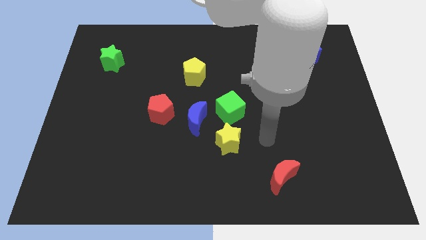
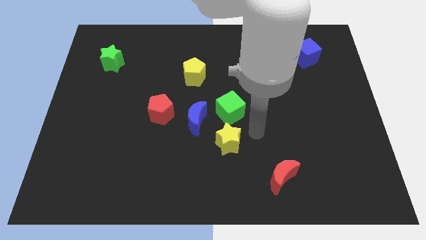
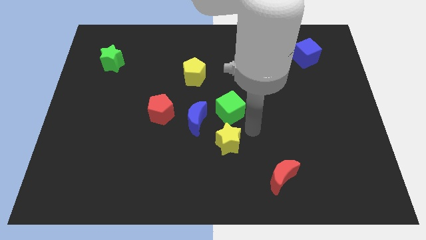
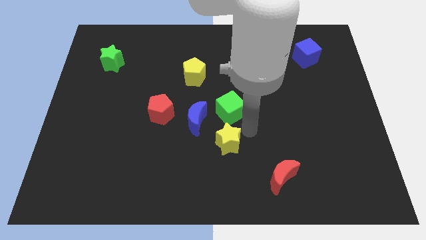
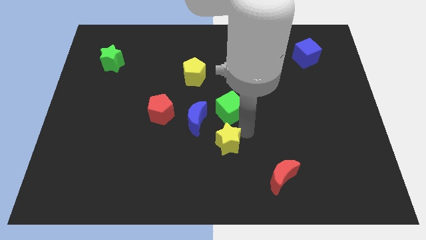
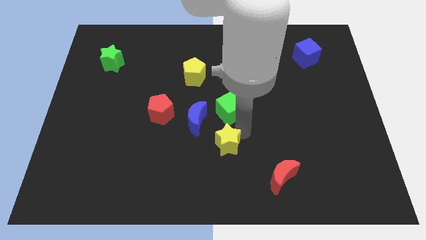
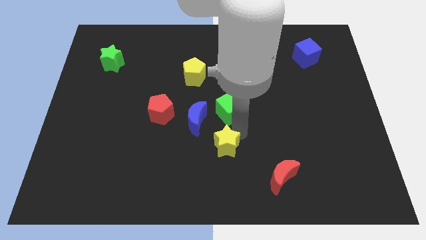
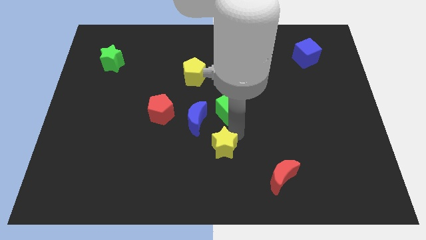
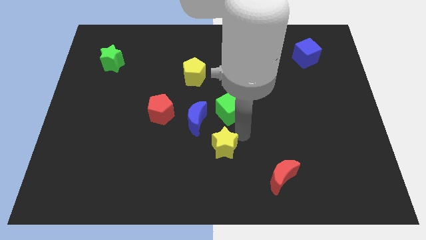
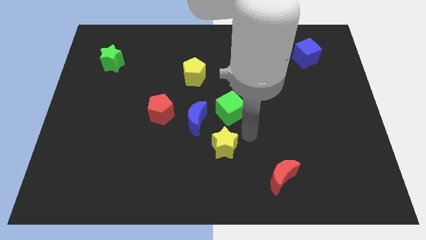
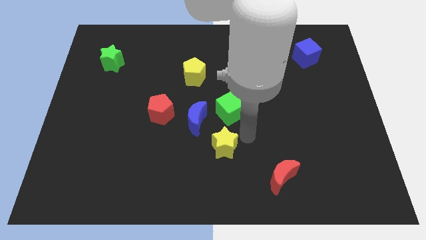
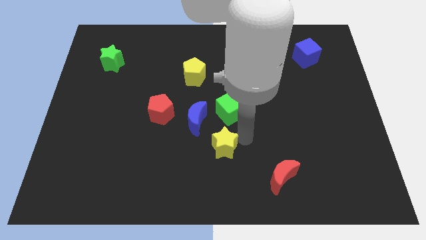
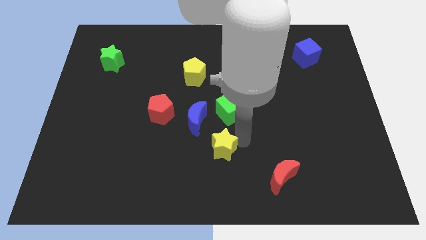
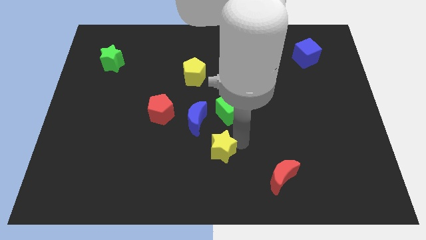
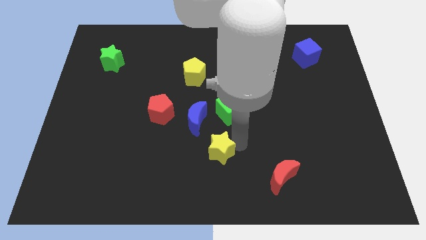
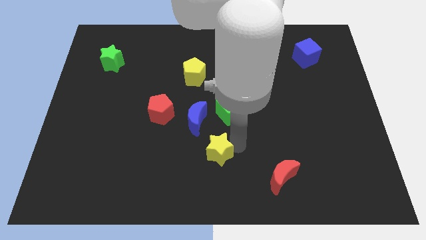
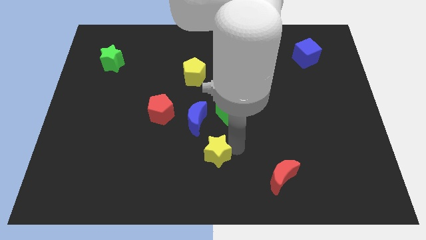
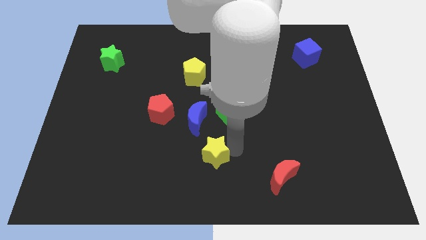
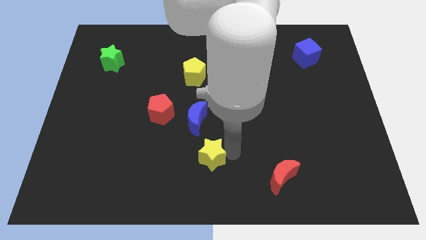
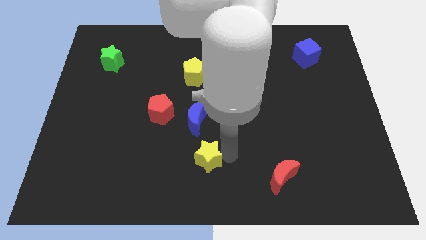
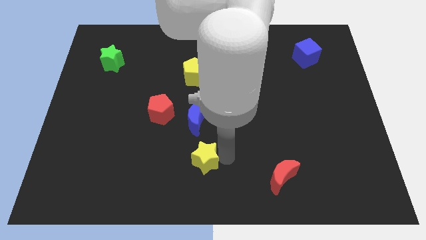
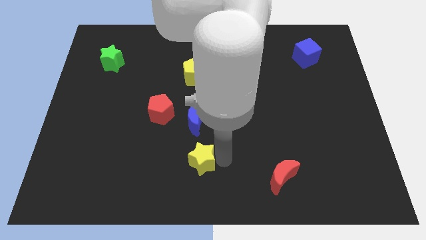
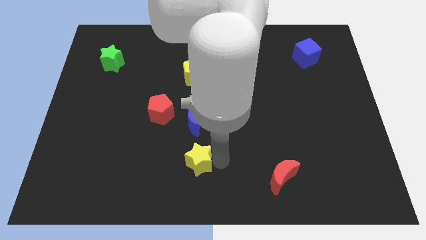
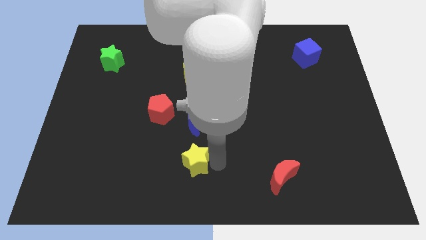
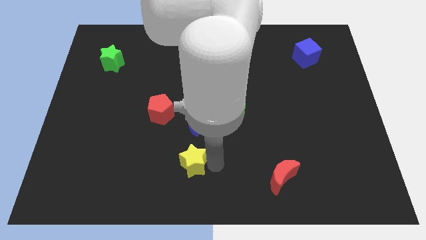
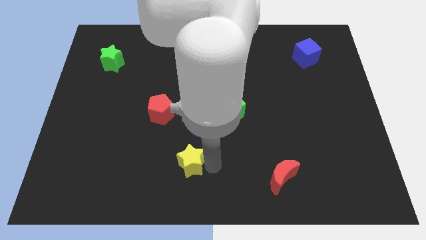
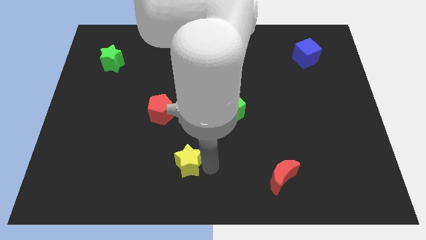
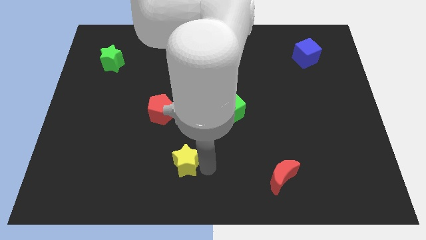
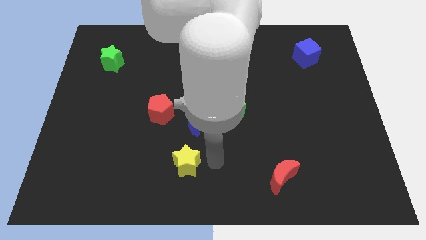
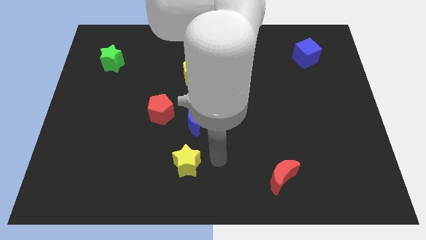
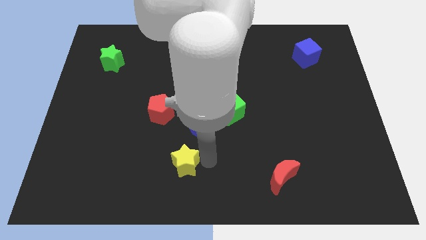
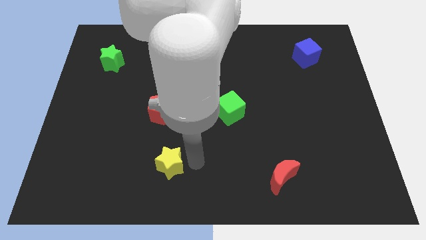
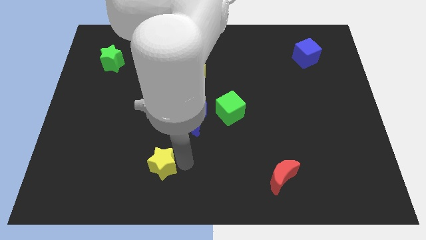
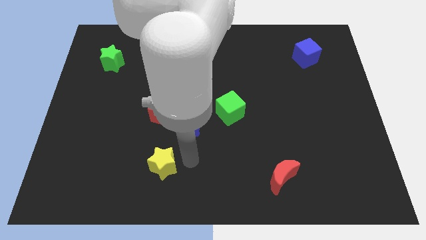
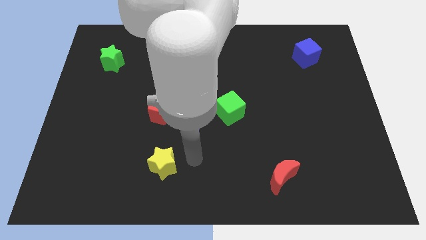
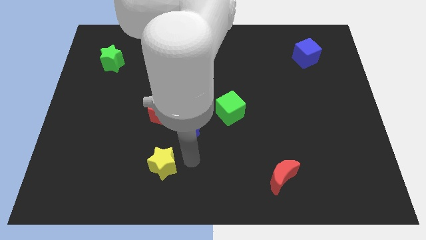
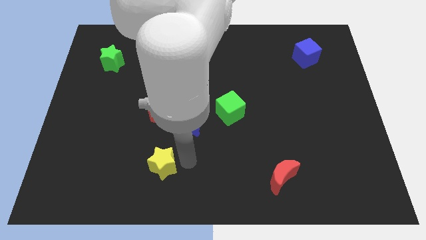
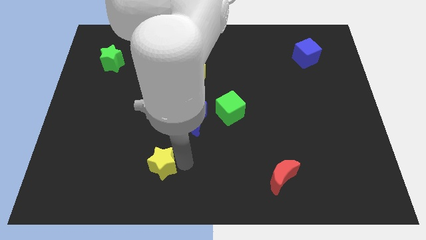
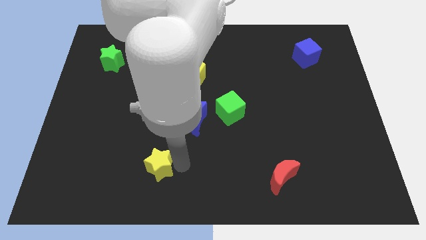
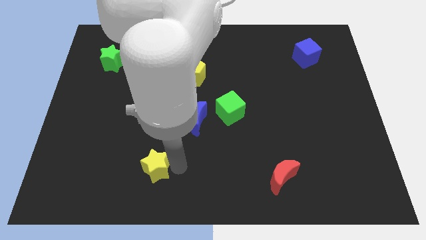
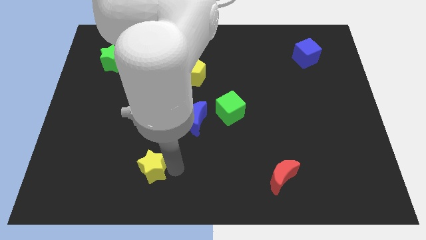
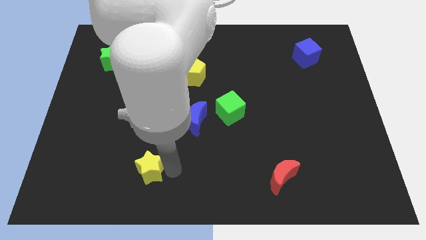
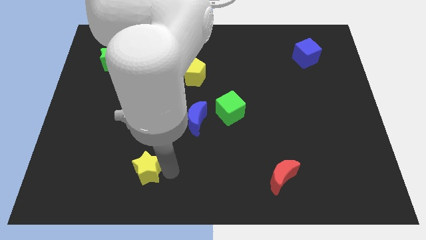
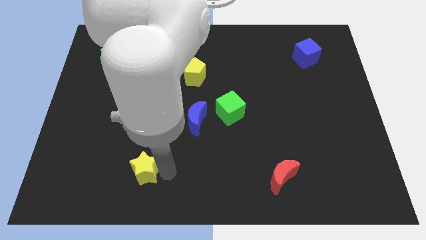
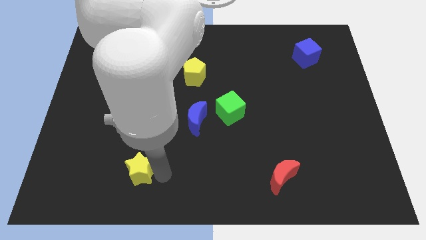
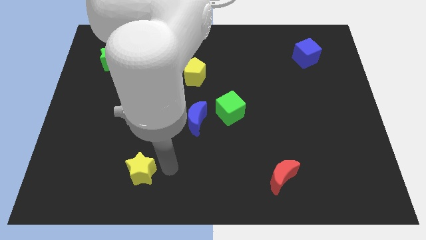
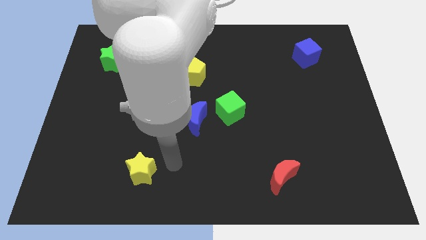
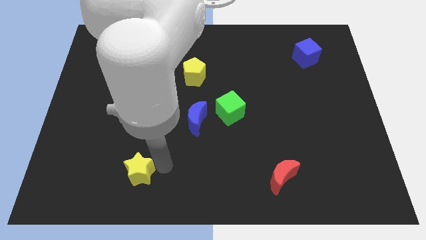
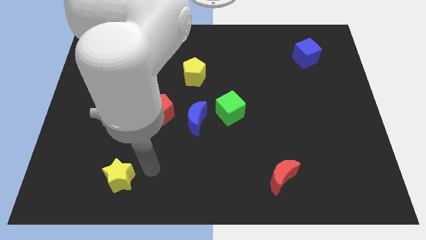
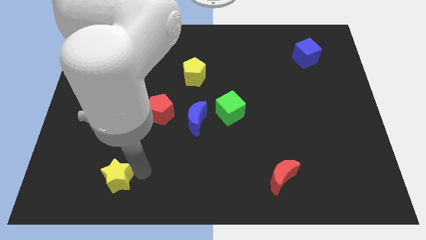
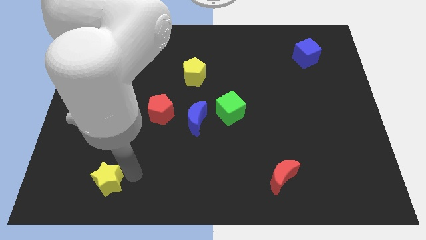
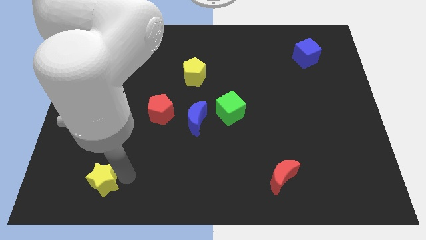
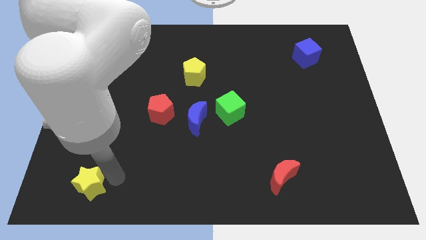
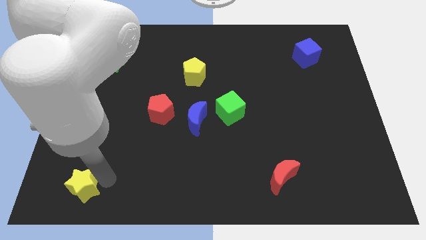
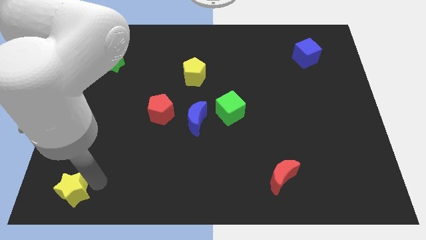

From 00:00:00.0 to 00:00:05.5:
move the yellow star to the bottom left corner

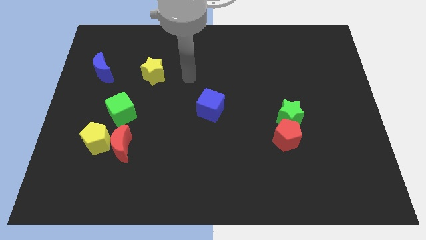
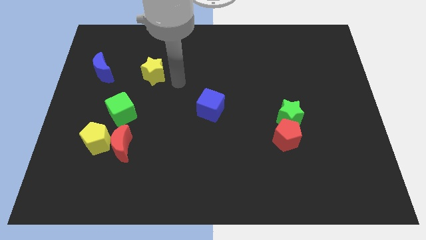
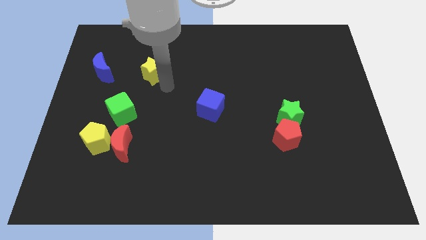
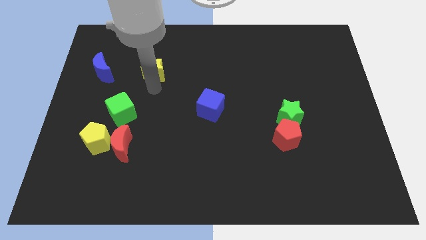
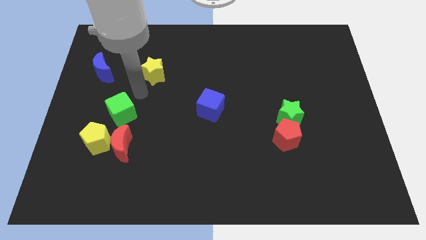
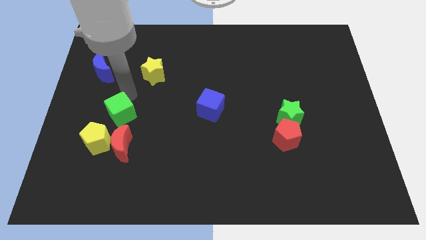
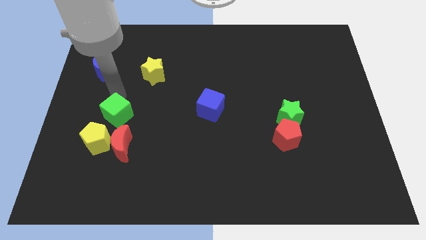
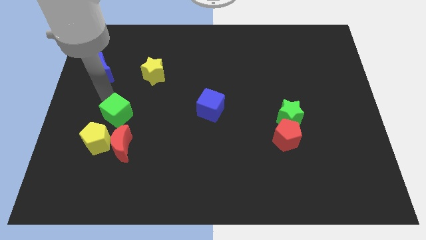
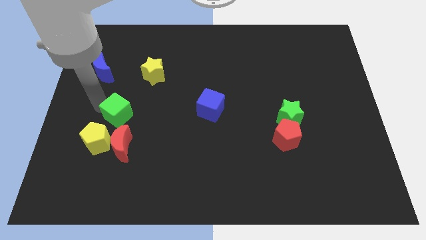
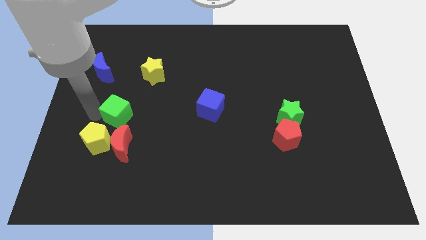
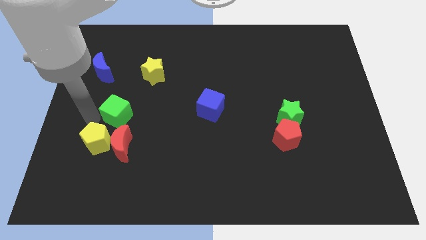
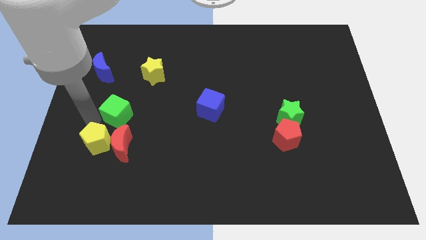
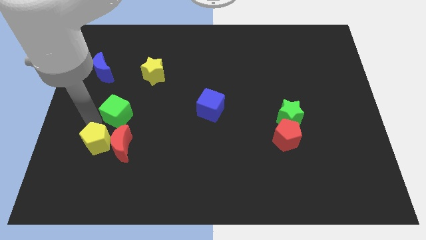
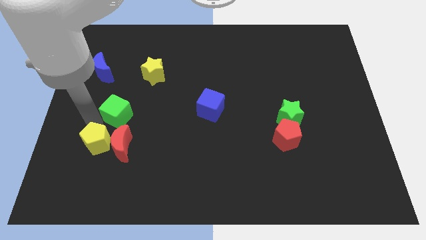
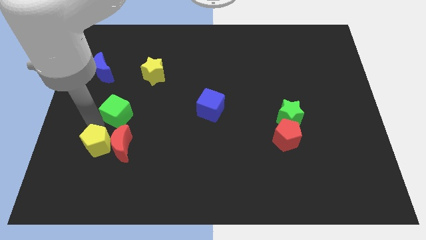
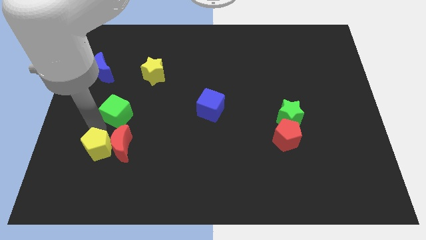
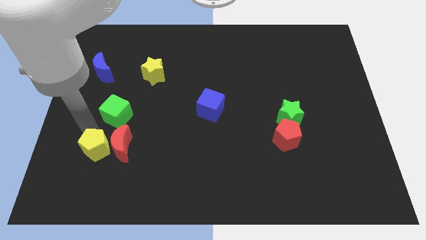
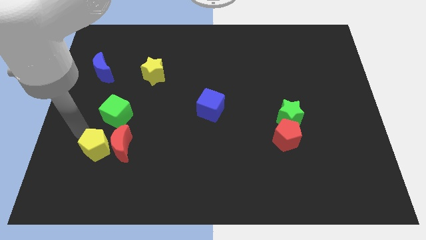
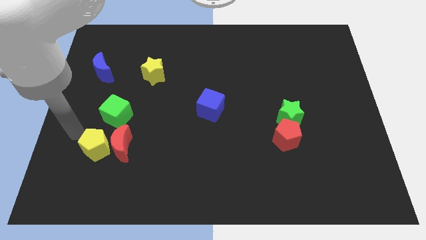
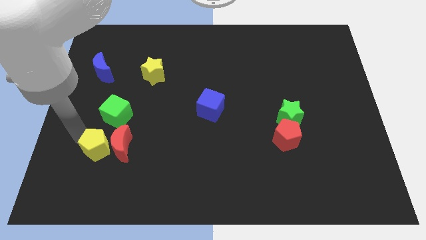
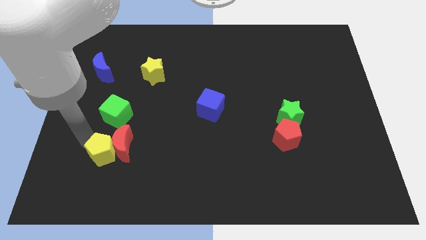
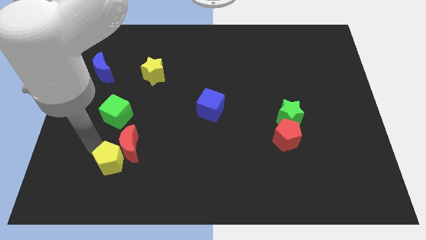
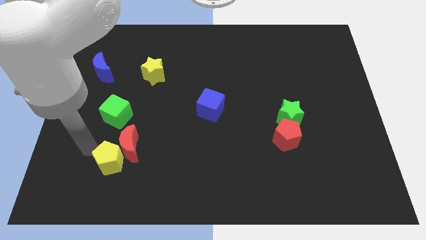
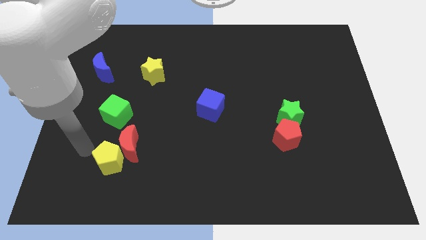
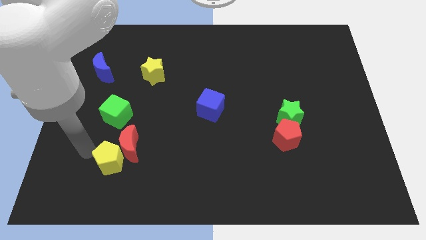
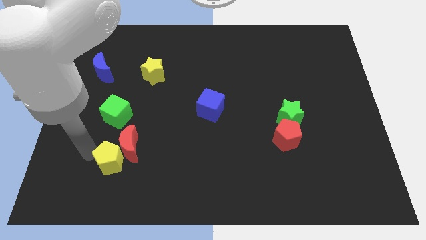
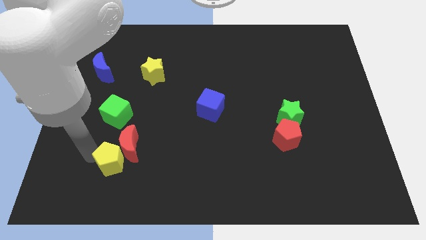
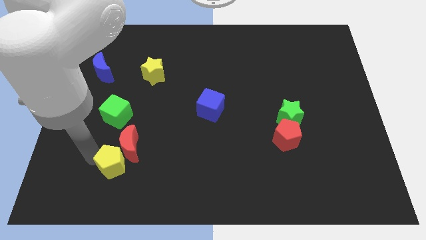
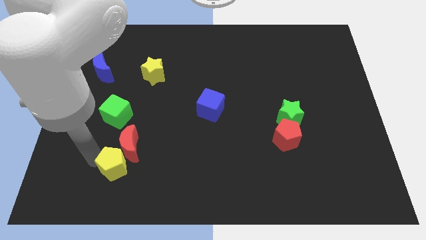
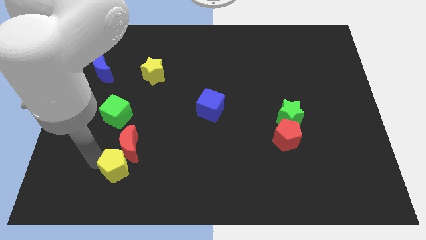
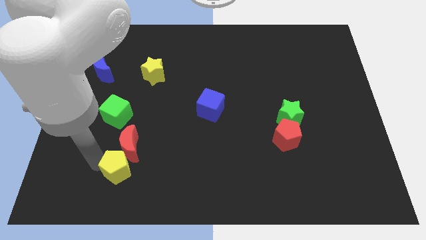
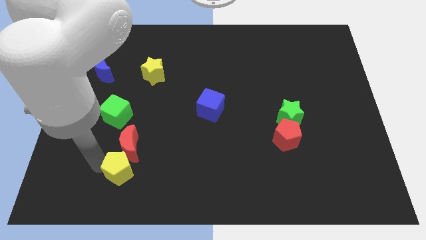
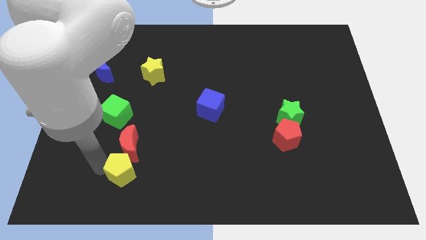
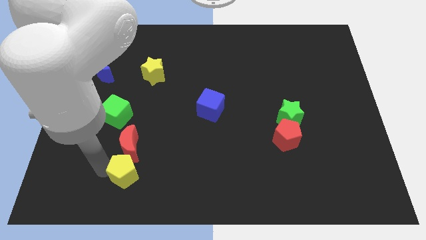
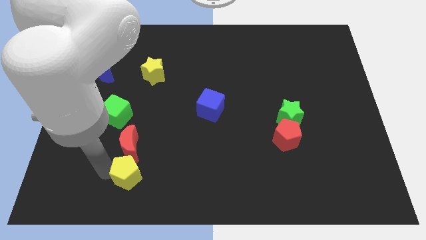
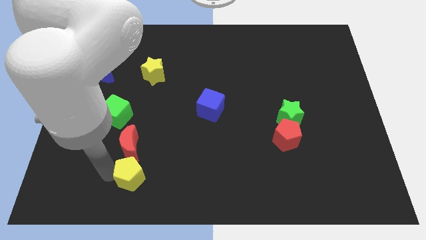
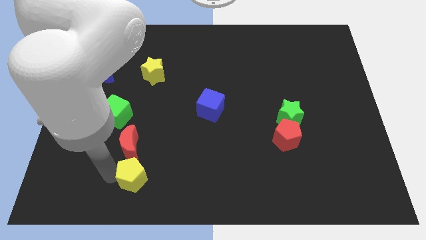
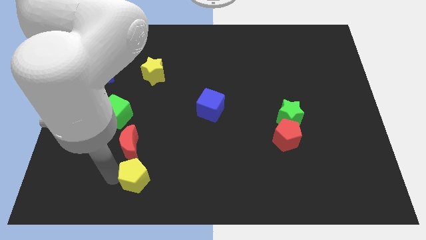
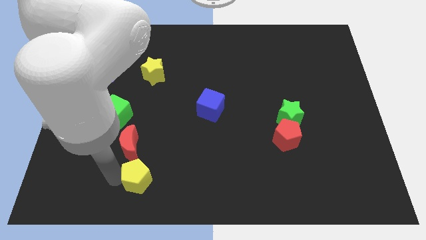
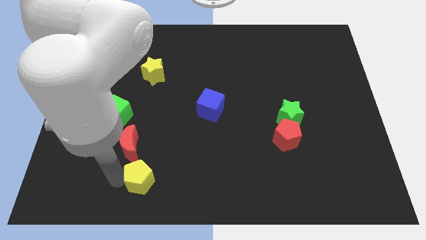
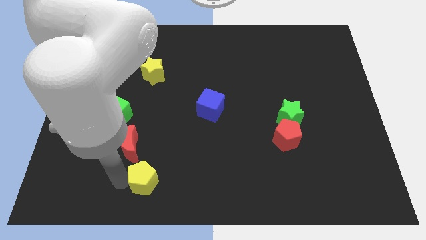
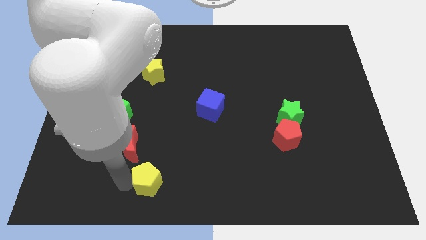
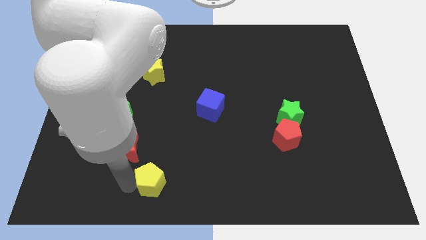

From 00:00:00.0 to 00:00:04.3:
slide the yellow pentagon to the bottom
